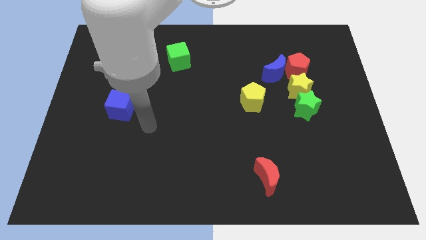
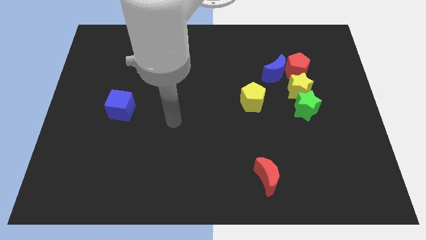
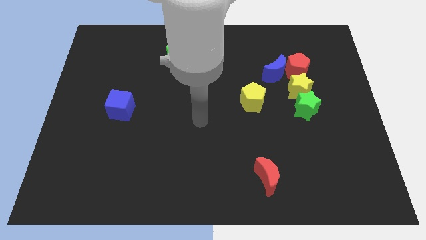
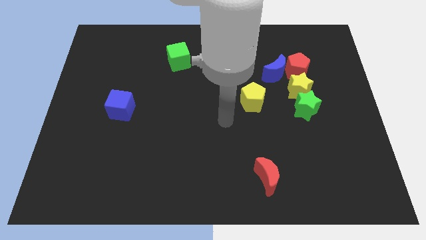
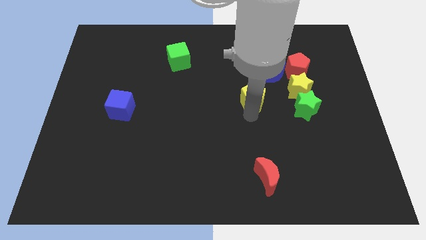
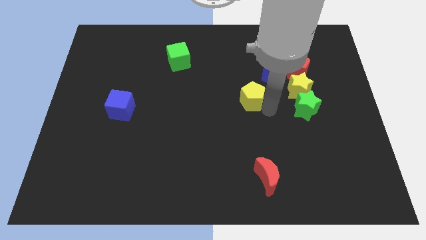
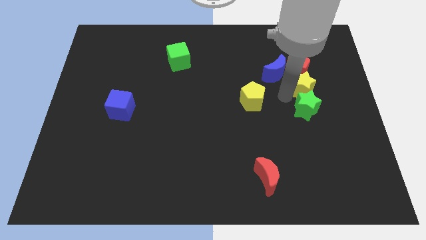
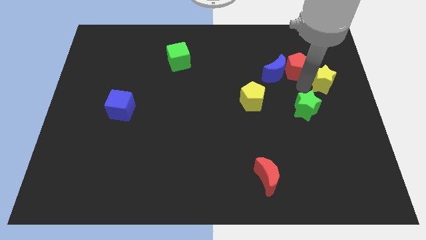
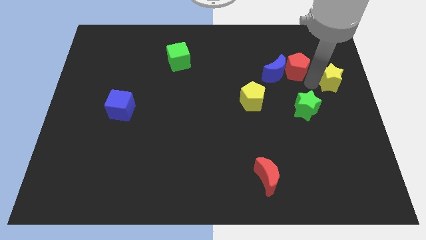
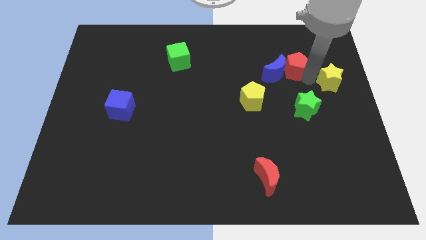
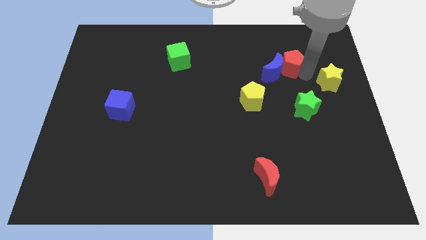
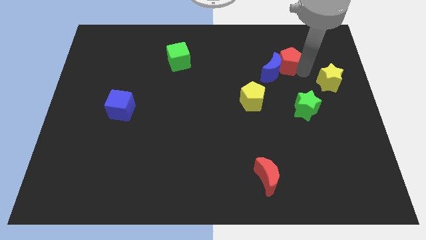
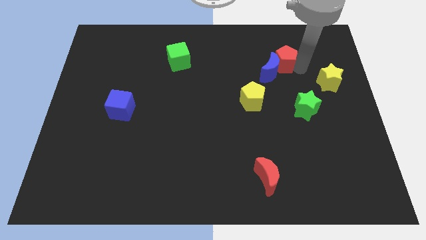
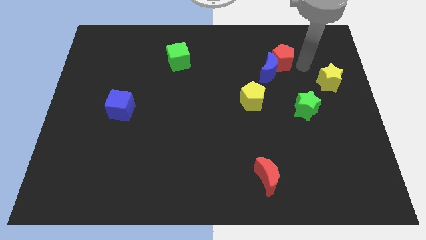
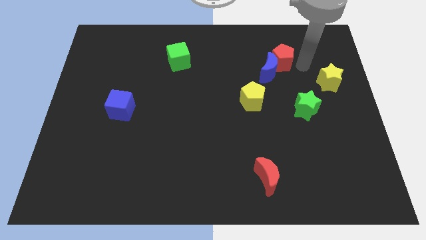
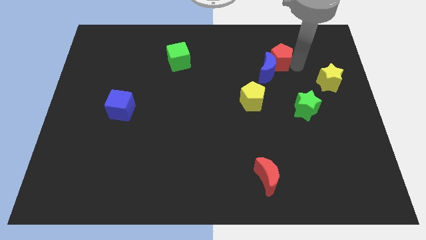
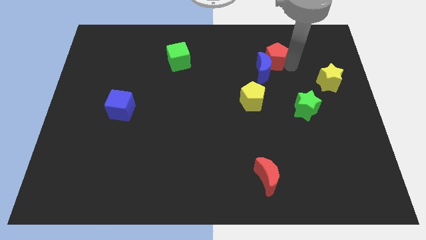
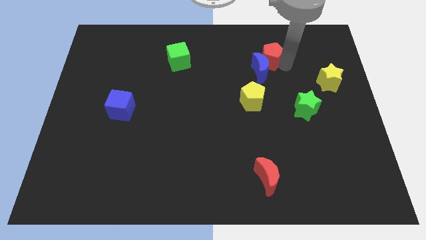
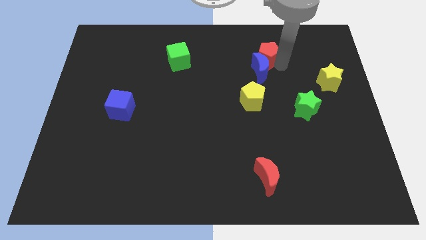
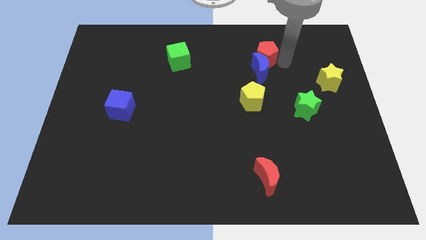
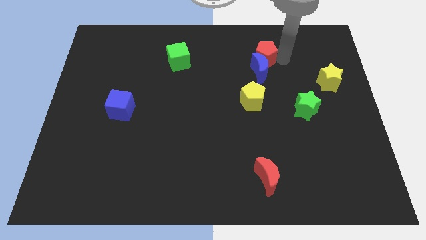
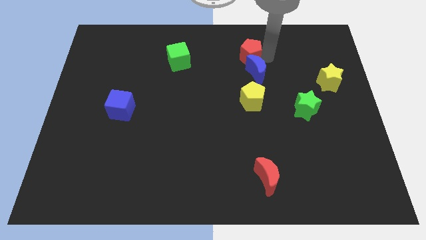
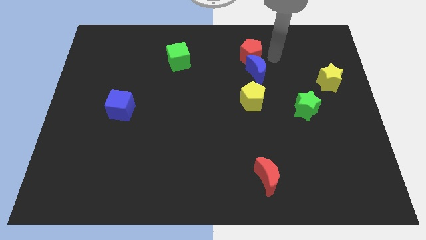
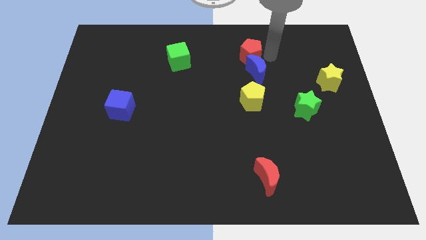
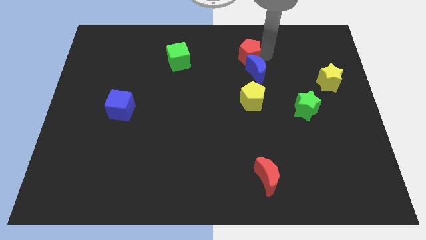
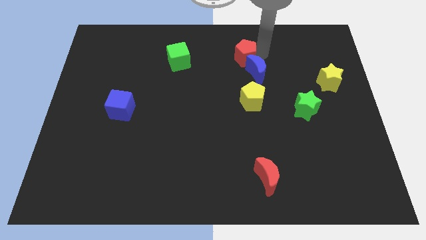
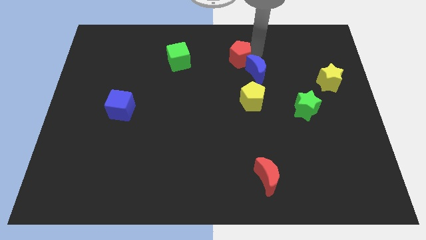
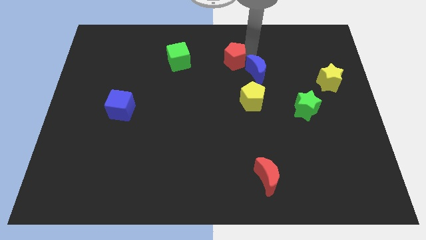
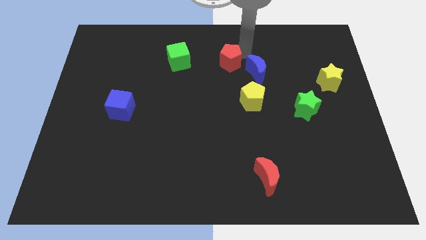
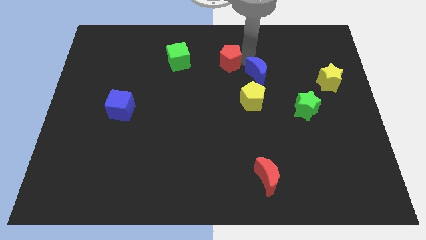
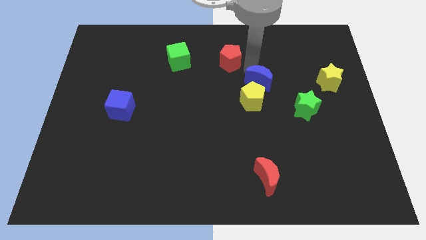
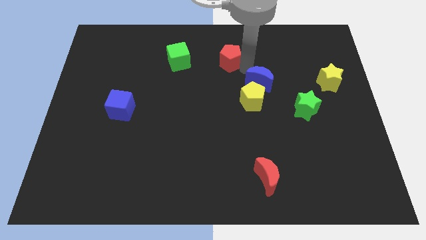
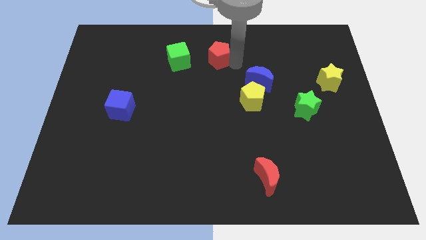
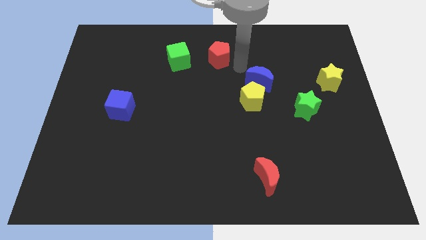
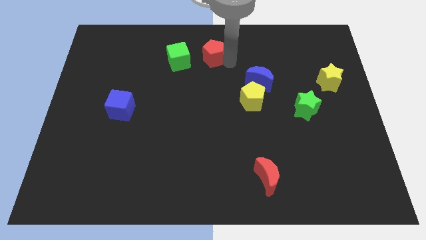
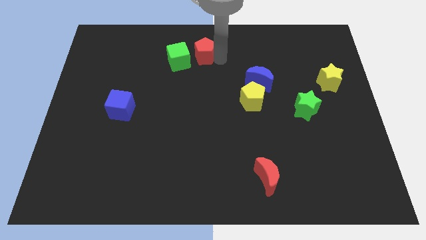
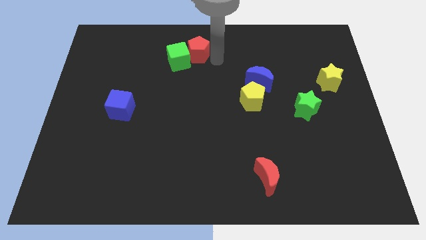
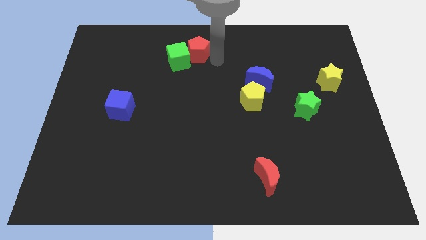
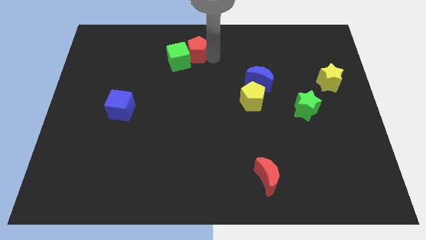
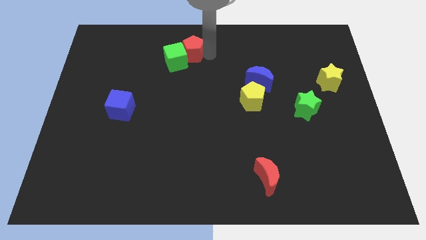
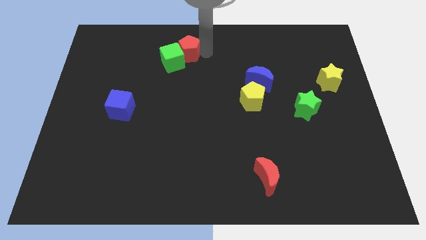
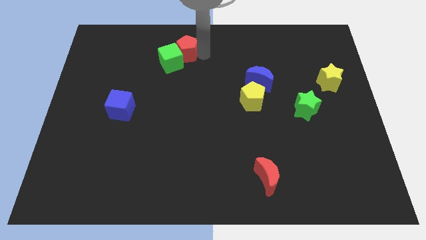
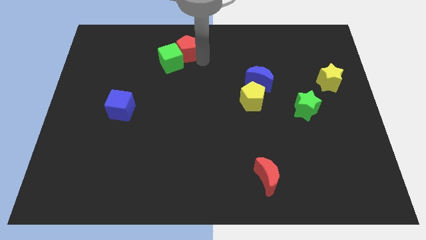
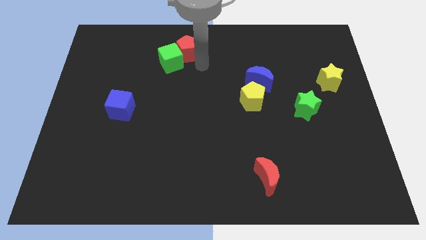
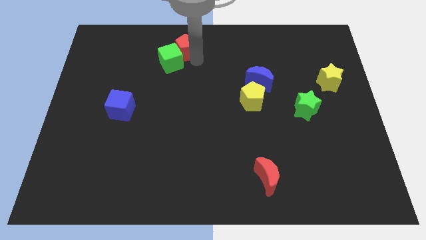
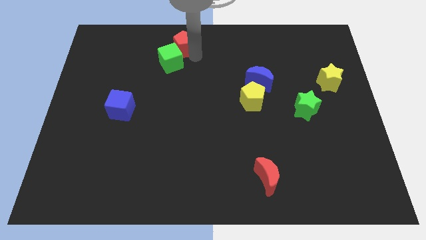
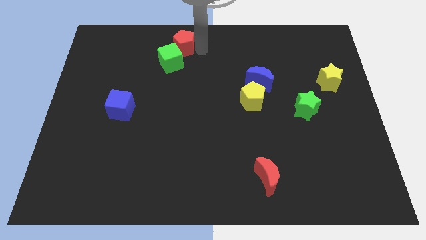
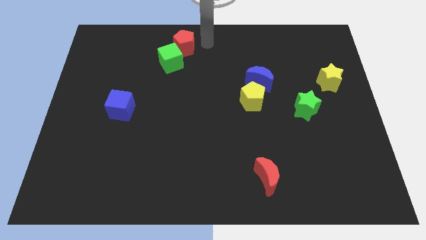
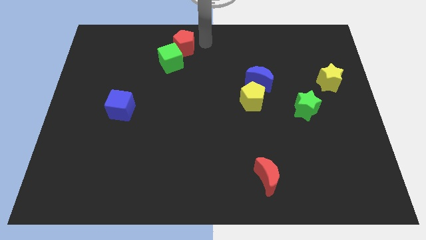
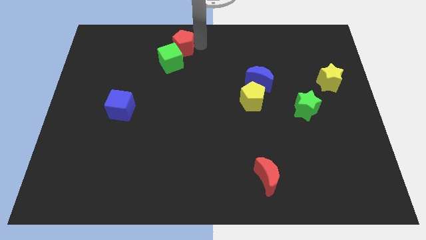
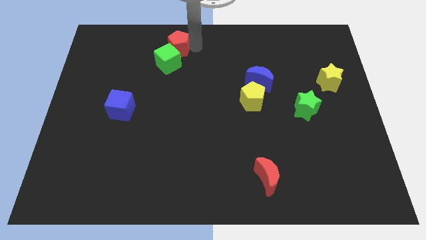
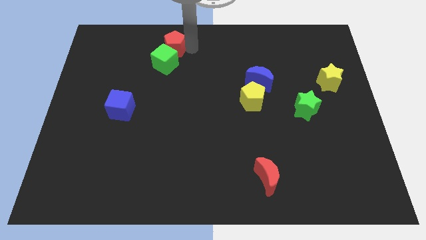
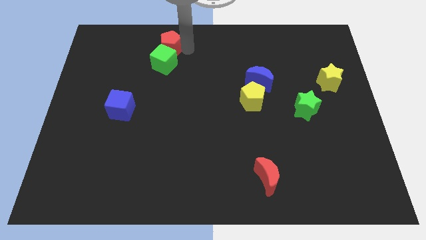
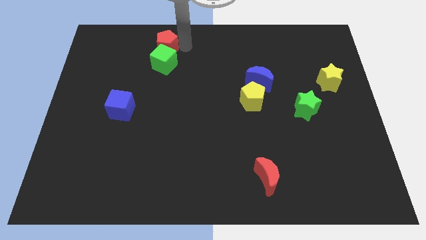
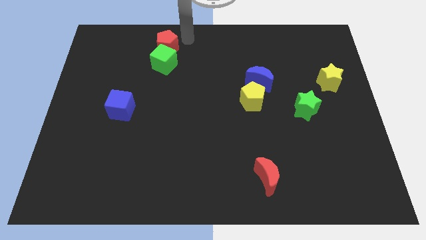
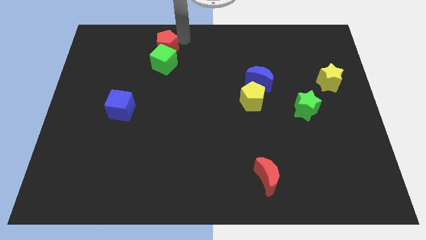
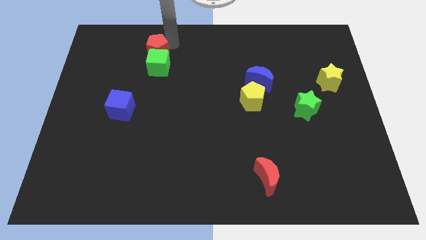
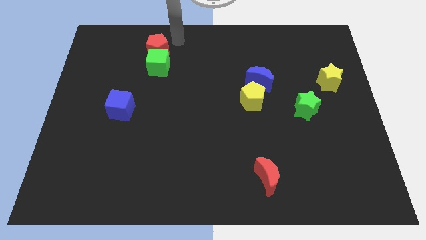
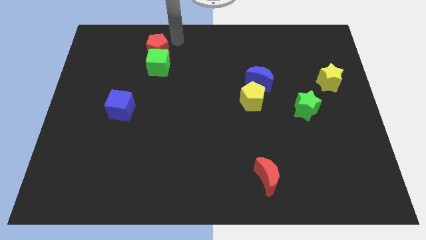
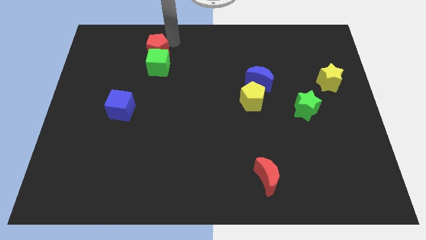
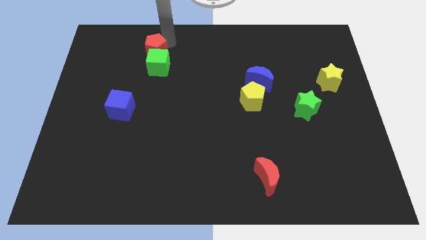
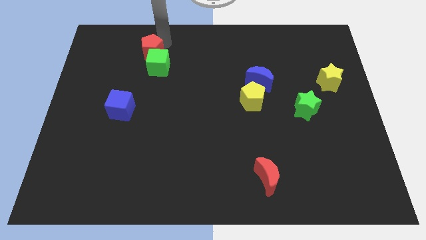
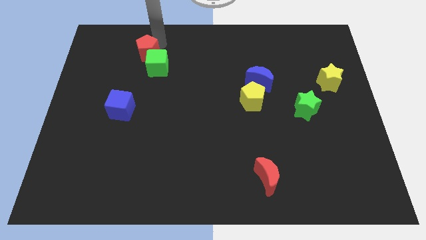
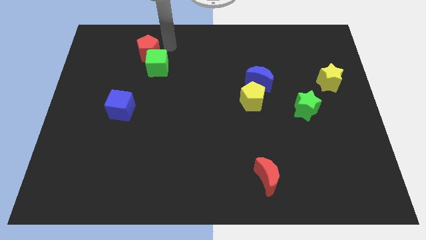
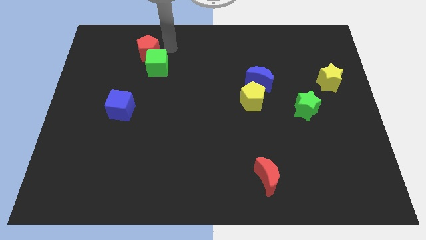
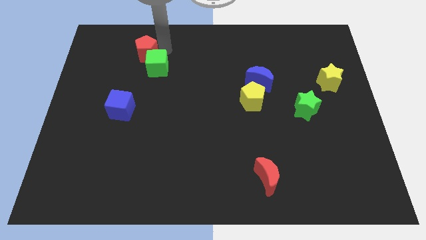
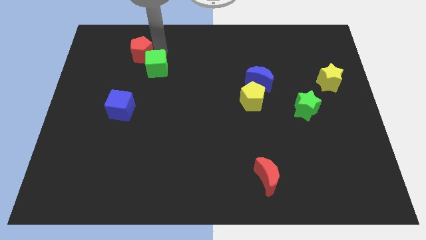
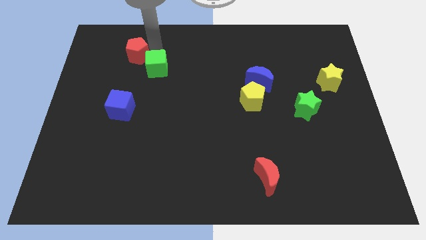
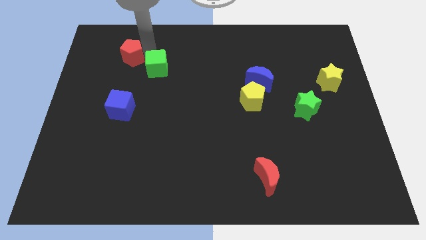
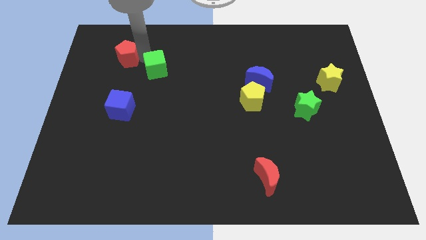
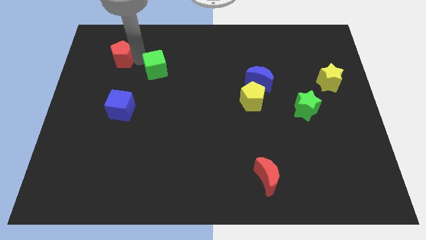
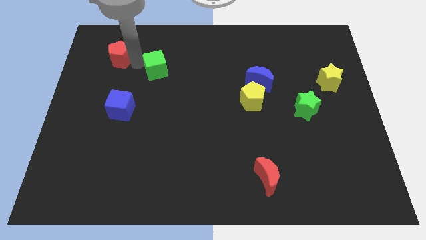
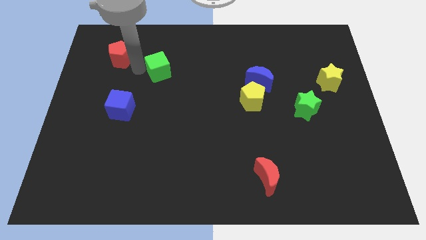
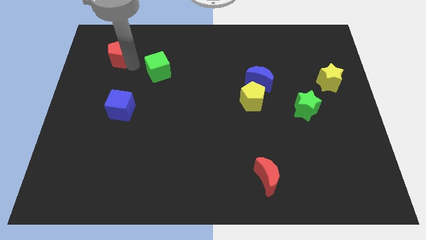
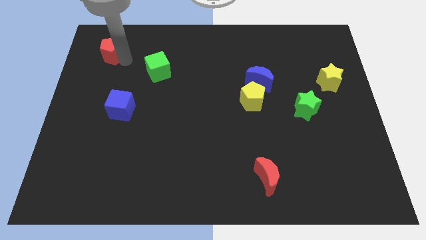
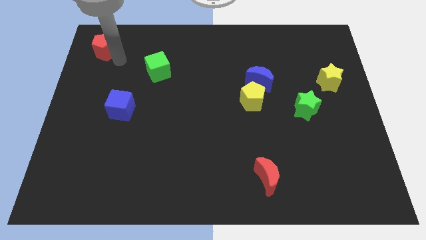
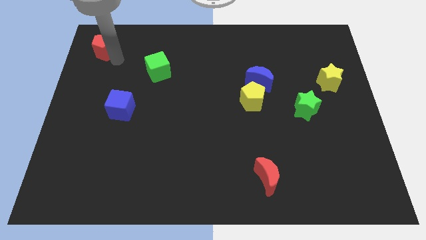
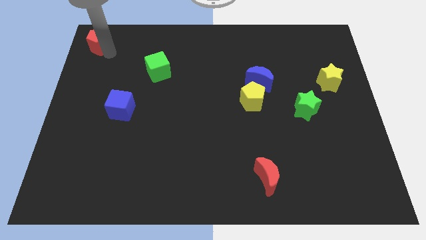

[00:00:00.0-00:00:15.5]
slide the red pentagon to the top left of the board
